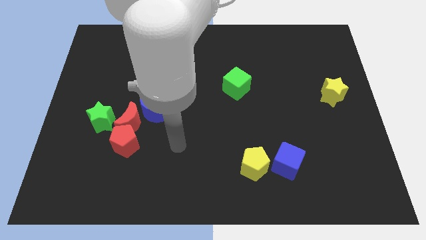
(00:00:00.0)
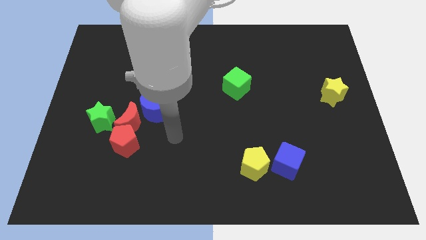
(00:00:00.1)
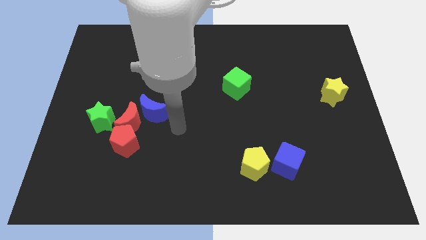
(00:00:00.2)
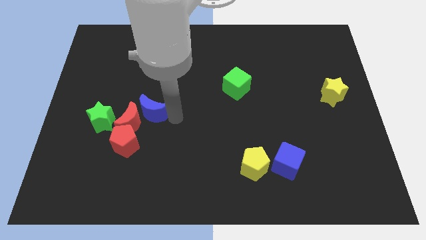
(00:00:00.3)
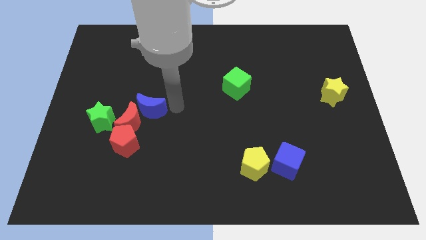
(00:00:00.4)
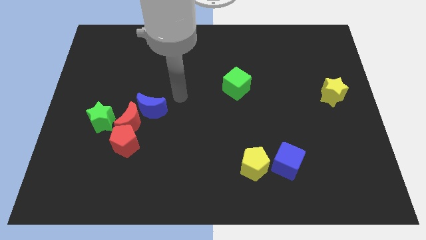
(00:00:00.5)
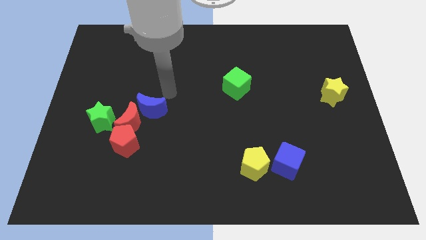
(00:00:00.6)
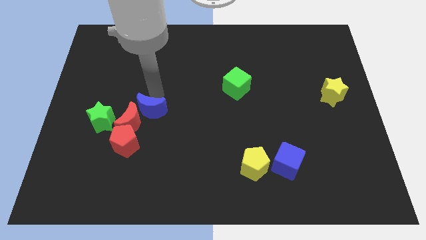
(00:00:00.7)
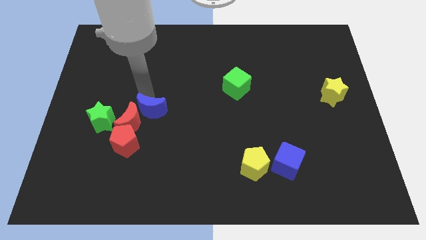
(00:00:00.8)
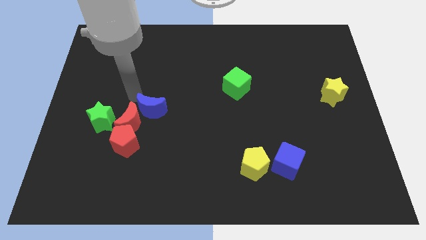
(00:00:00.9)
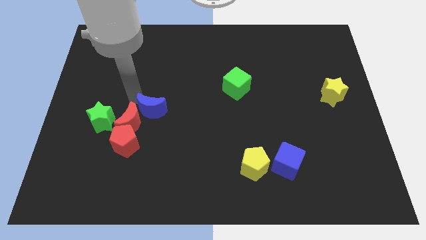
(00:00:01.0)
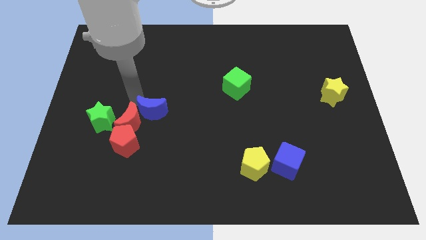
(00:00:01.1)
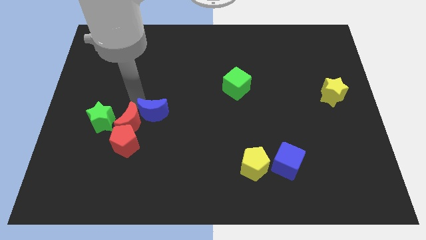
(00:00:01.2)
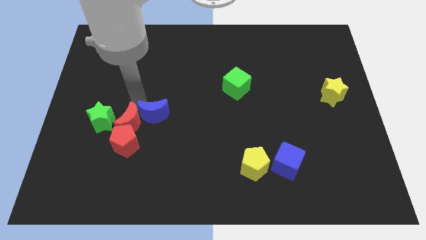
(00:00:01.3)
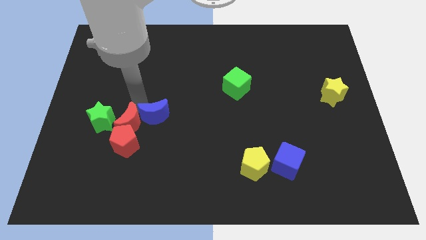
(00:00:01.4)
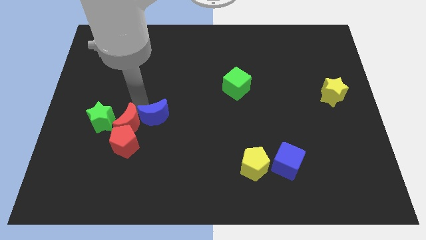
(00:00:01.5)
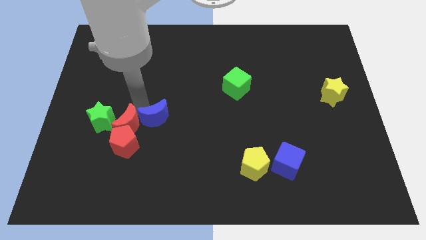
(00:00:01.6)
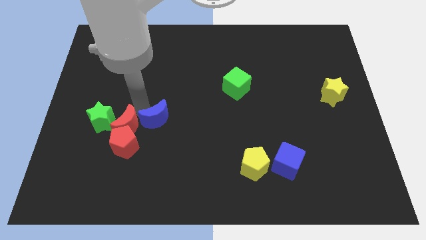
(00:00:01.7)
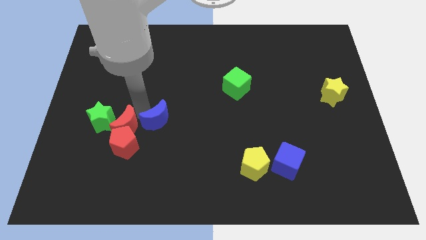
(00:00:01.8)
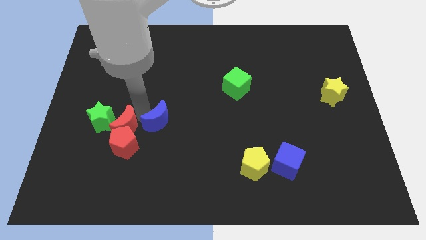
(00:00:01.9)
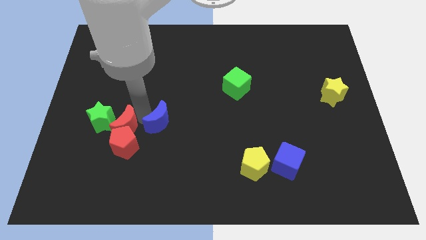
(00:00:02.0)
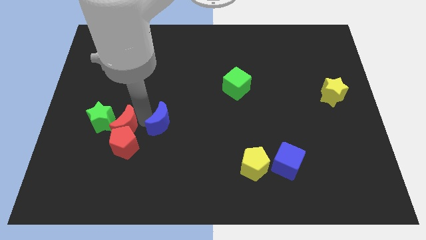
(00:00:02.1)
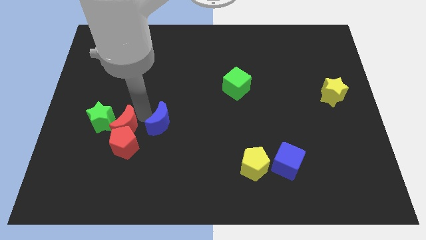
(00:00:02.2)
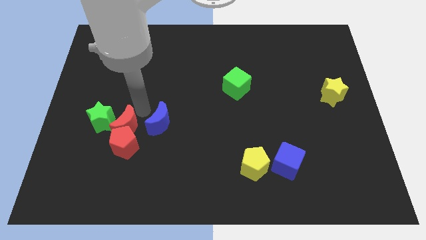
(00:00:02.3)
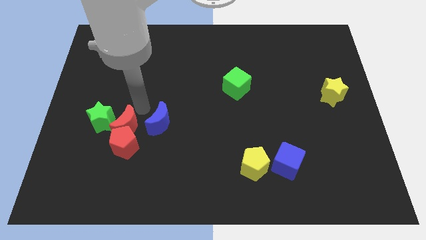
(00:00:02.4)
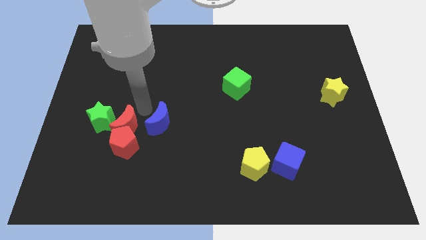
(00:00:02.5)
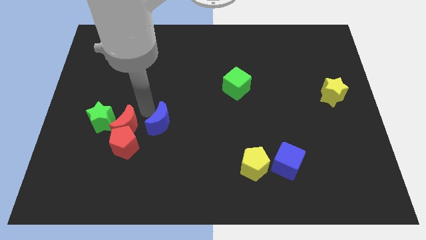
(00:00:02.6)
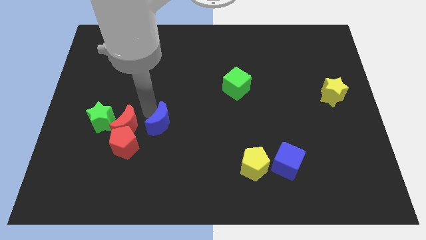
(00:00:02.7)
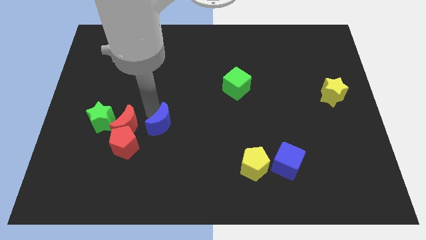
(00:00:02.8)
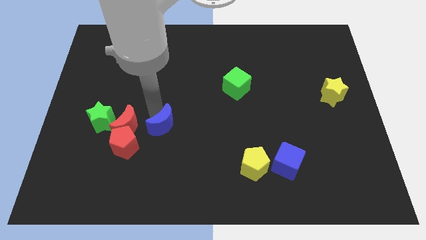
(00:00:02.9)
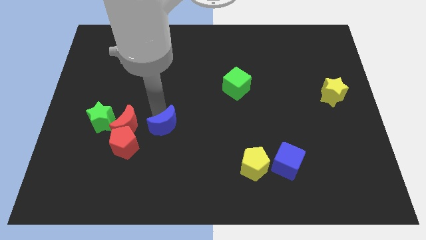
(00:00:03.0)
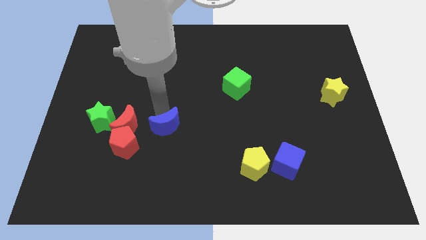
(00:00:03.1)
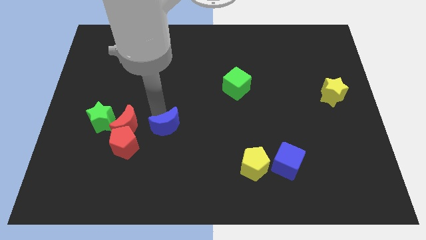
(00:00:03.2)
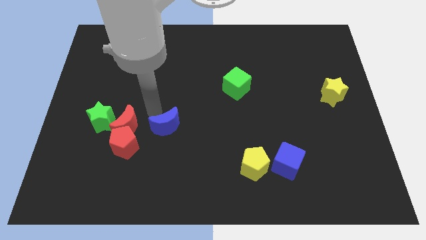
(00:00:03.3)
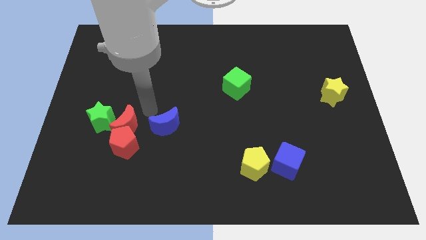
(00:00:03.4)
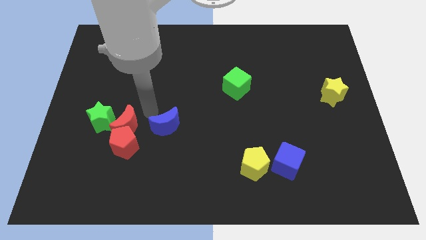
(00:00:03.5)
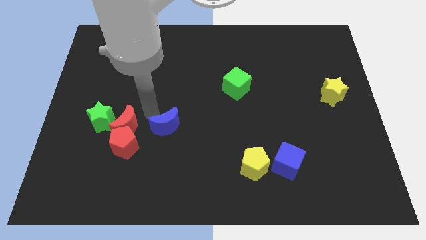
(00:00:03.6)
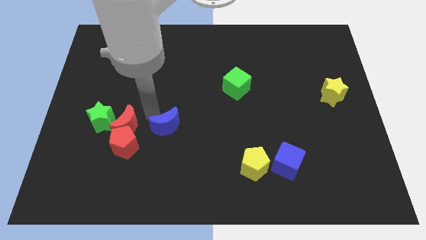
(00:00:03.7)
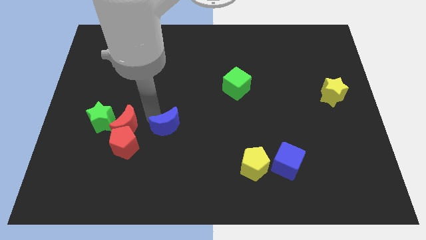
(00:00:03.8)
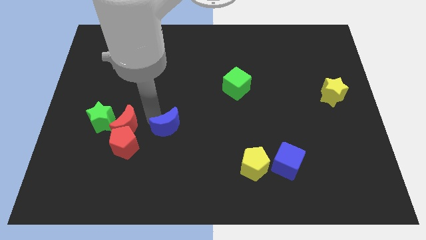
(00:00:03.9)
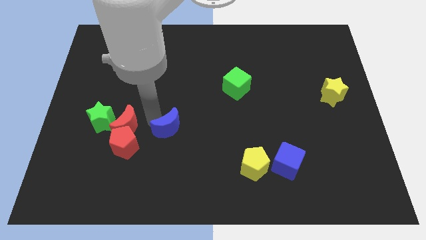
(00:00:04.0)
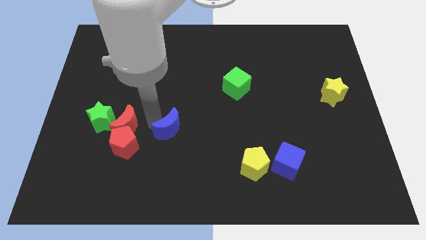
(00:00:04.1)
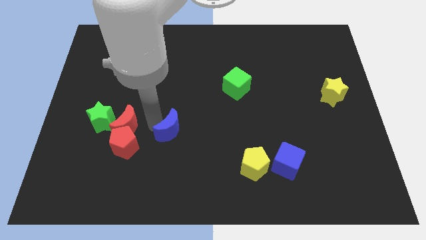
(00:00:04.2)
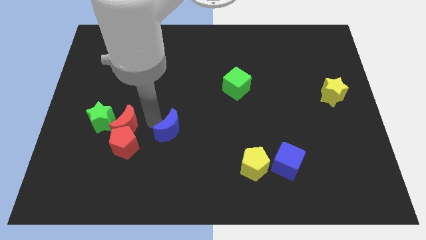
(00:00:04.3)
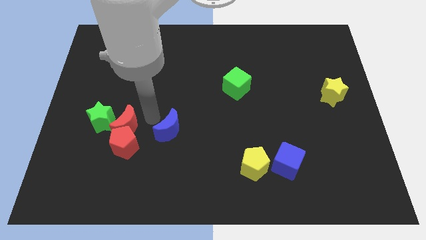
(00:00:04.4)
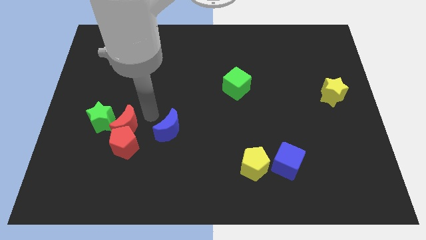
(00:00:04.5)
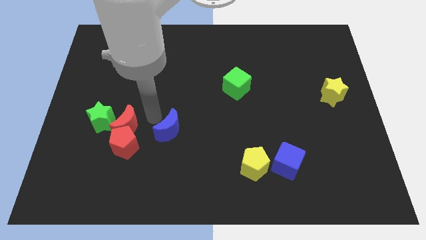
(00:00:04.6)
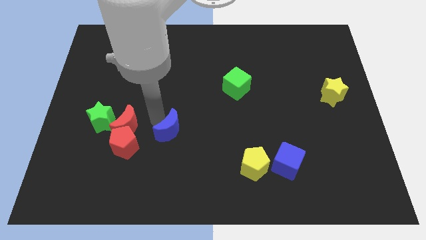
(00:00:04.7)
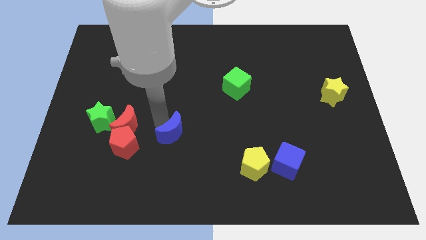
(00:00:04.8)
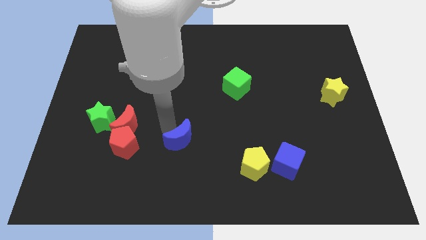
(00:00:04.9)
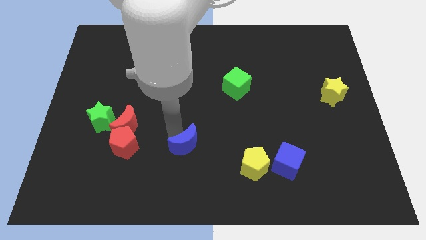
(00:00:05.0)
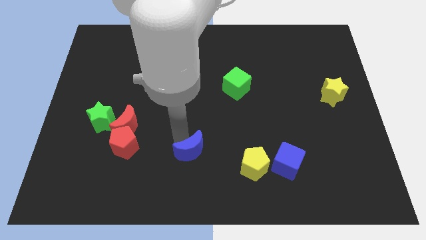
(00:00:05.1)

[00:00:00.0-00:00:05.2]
move the blue moon just left of the yellow pentagon

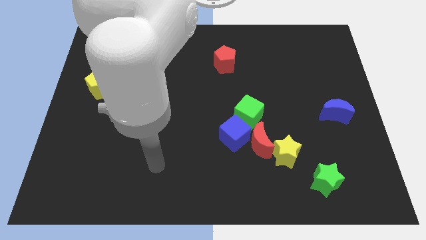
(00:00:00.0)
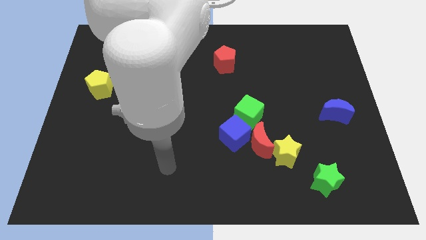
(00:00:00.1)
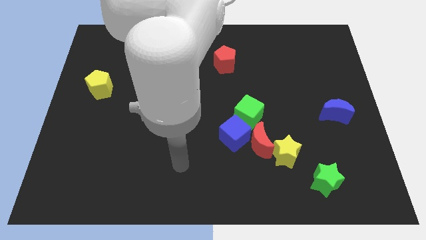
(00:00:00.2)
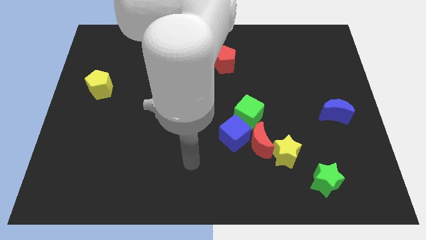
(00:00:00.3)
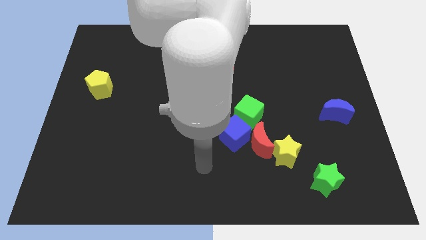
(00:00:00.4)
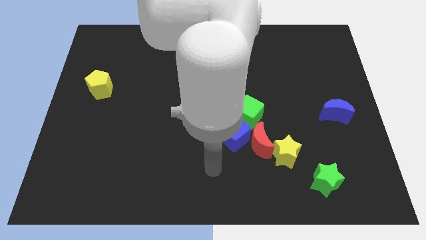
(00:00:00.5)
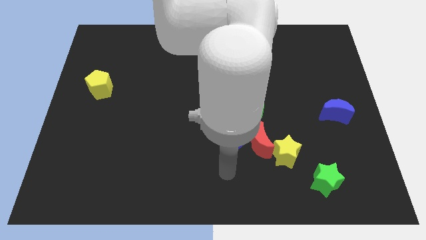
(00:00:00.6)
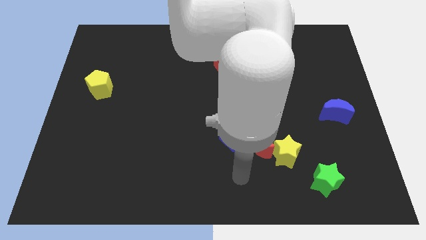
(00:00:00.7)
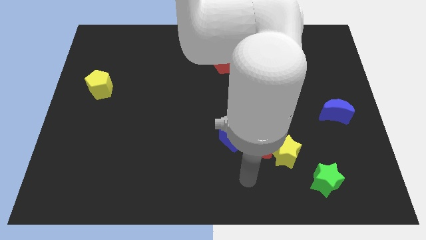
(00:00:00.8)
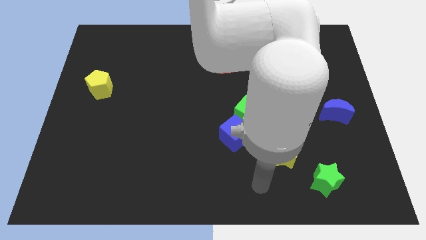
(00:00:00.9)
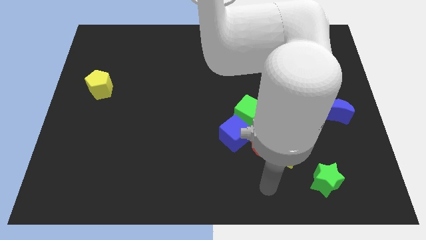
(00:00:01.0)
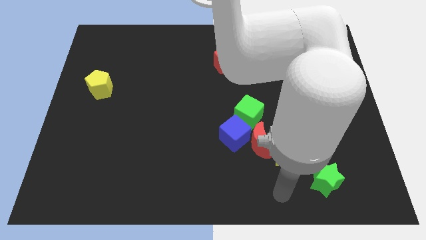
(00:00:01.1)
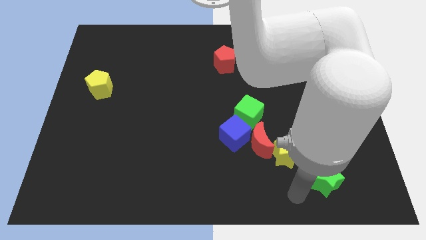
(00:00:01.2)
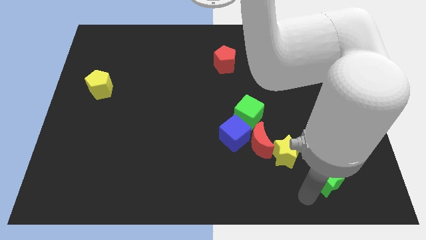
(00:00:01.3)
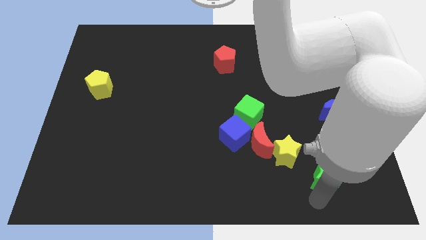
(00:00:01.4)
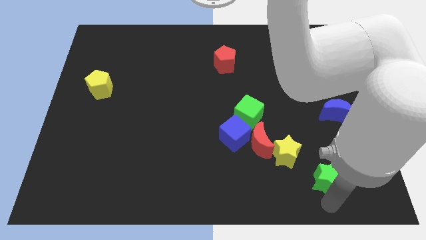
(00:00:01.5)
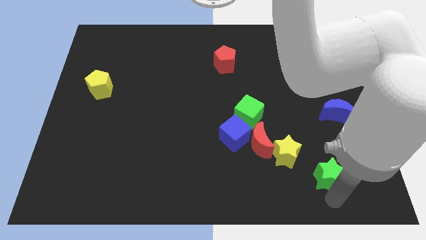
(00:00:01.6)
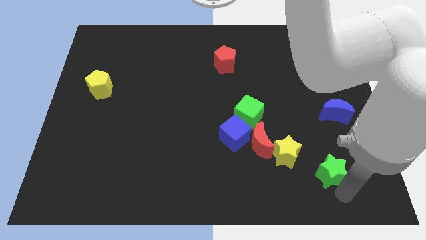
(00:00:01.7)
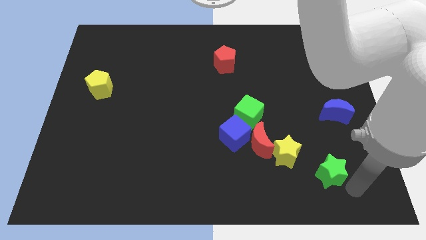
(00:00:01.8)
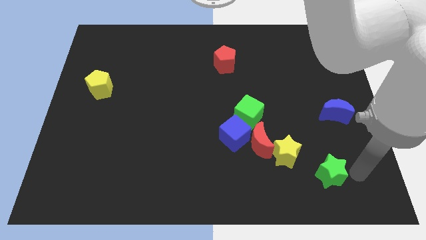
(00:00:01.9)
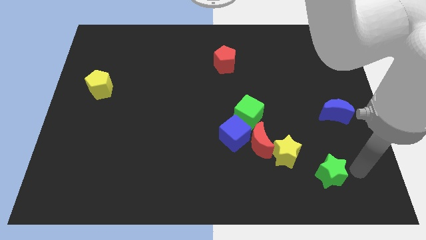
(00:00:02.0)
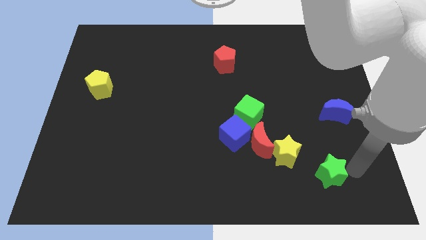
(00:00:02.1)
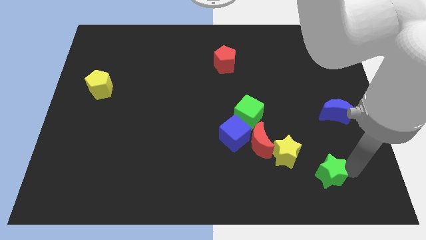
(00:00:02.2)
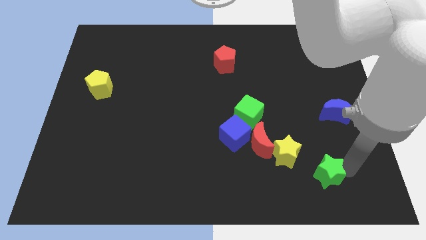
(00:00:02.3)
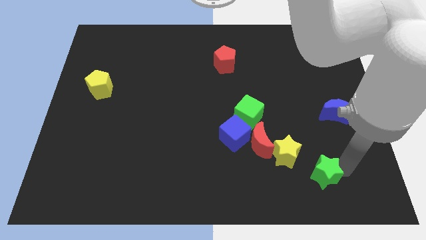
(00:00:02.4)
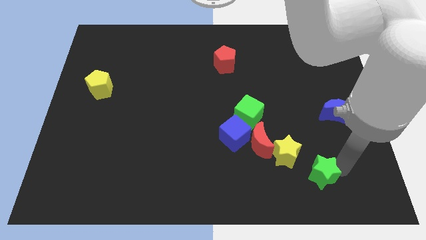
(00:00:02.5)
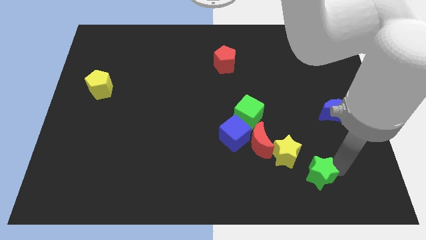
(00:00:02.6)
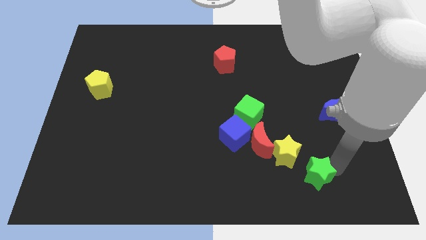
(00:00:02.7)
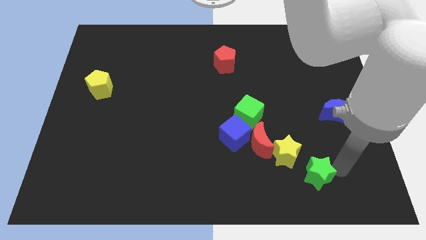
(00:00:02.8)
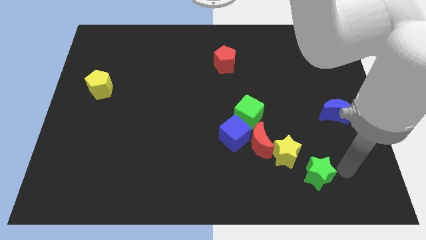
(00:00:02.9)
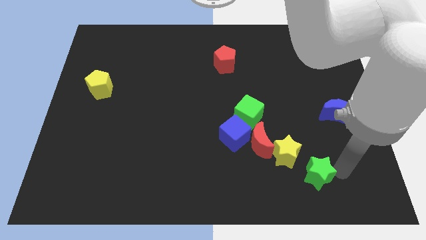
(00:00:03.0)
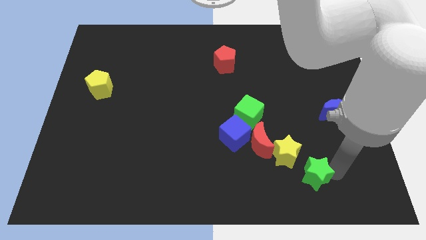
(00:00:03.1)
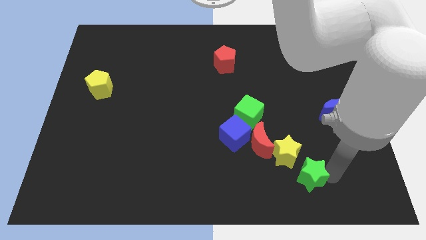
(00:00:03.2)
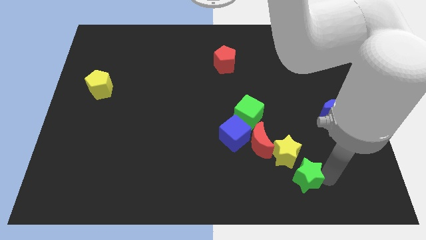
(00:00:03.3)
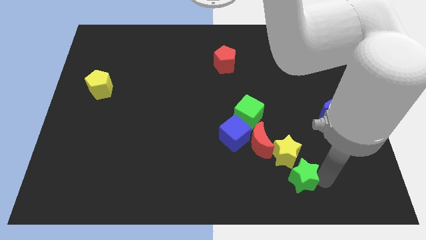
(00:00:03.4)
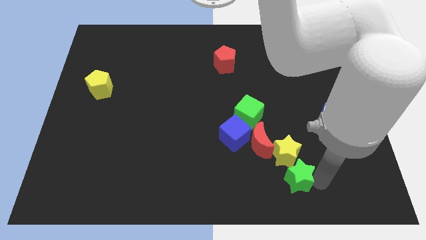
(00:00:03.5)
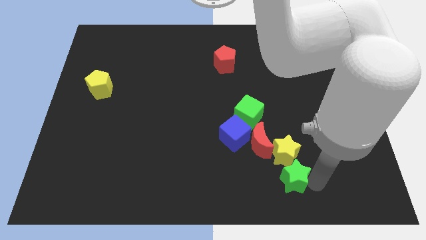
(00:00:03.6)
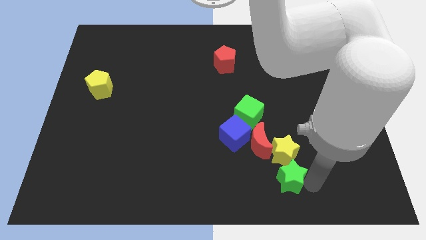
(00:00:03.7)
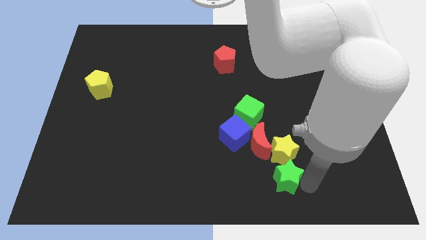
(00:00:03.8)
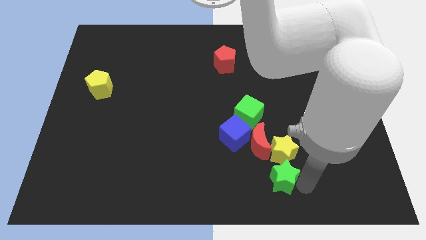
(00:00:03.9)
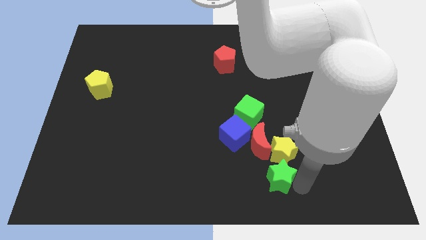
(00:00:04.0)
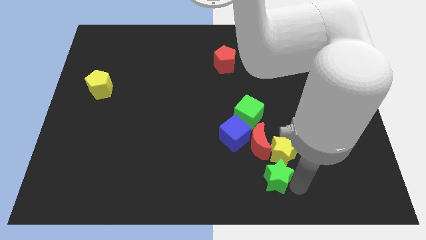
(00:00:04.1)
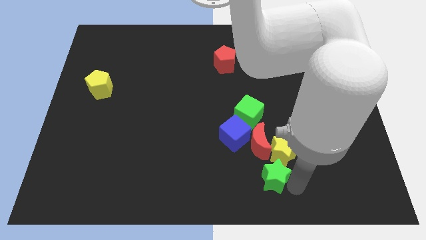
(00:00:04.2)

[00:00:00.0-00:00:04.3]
slide the green star diagonally down and to the right of the blue cube
